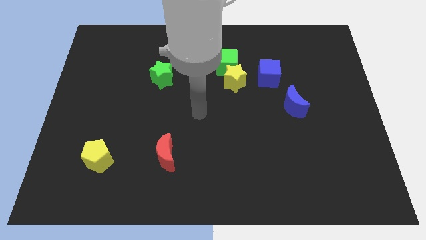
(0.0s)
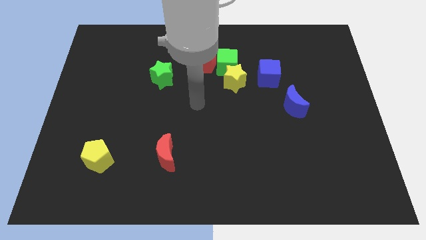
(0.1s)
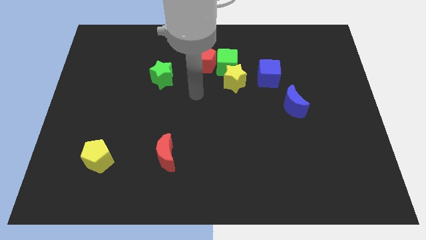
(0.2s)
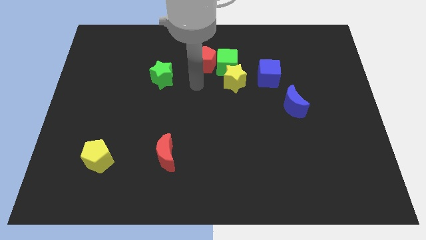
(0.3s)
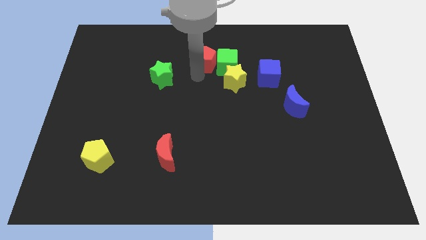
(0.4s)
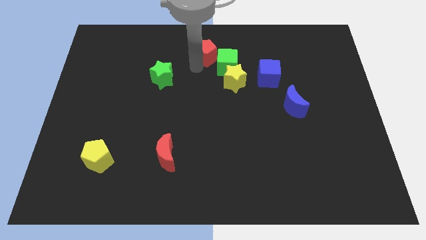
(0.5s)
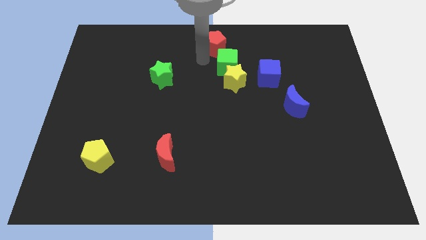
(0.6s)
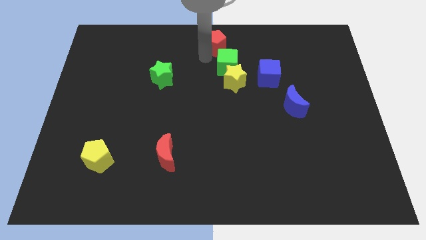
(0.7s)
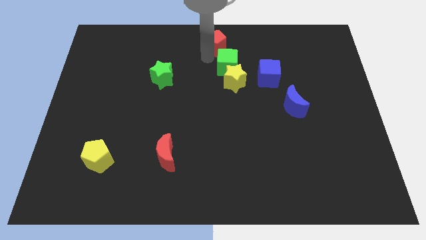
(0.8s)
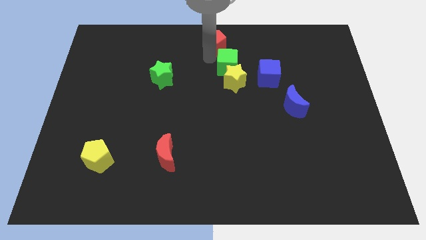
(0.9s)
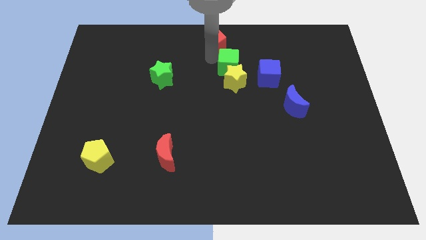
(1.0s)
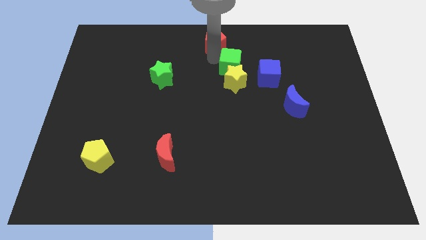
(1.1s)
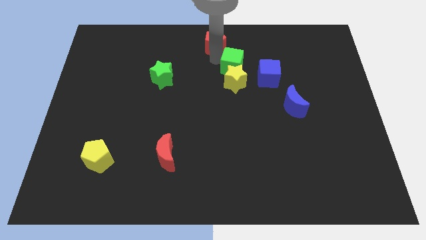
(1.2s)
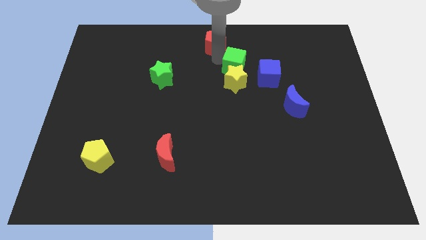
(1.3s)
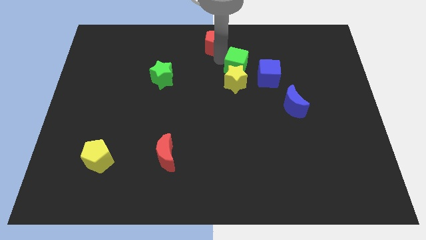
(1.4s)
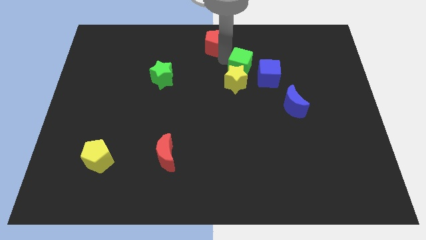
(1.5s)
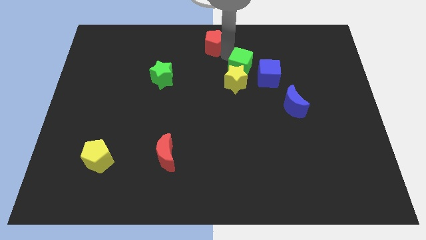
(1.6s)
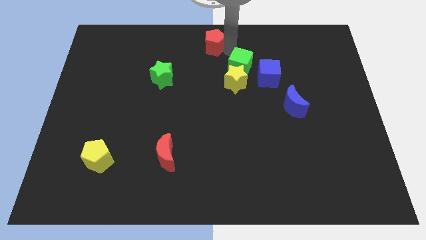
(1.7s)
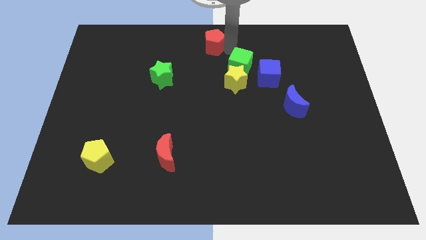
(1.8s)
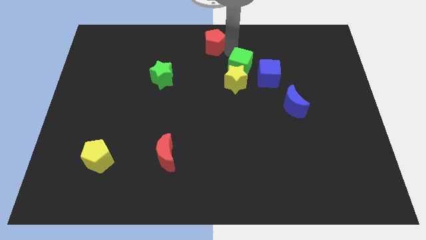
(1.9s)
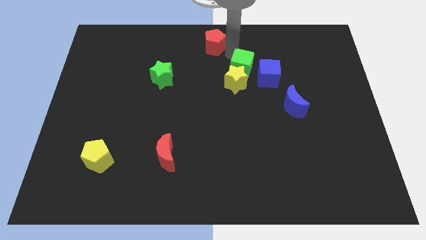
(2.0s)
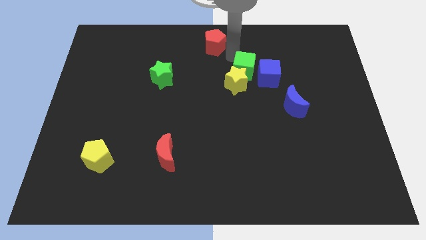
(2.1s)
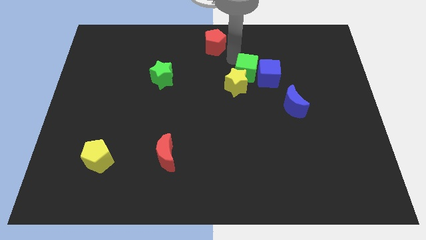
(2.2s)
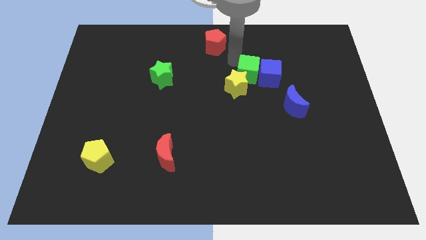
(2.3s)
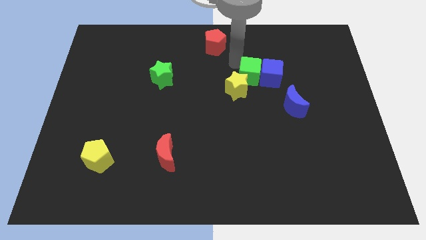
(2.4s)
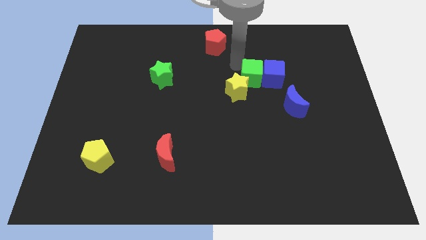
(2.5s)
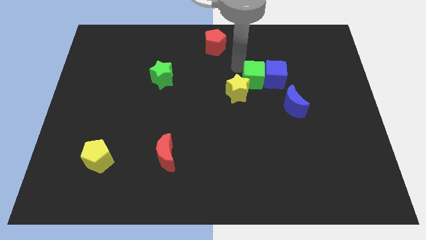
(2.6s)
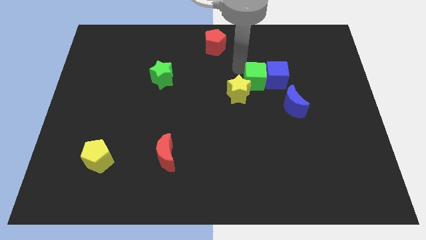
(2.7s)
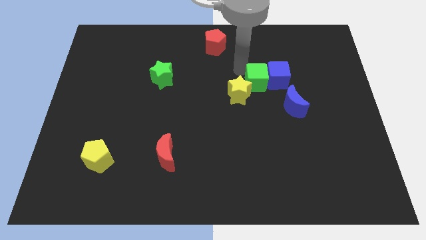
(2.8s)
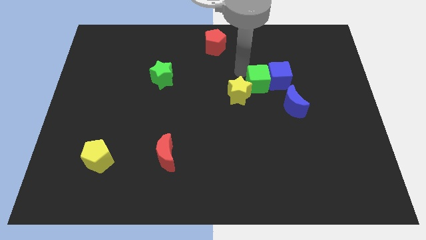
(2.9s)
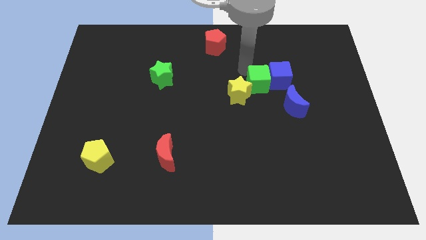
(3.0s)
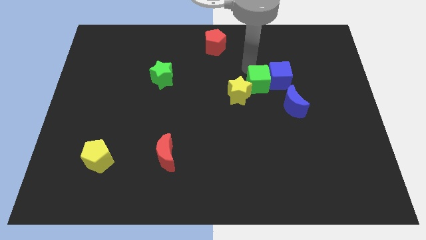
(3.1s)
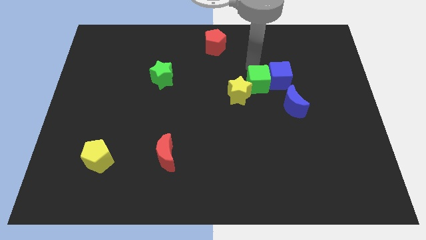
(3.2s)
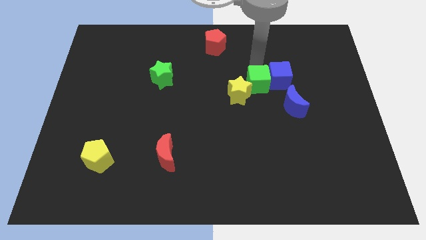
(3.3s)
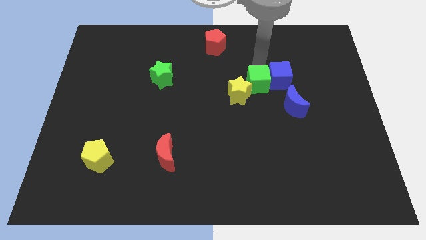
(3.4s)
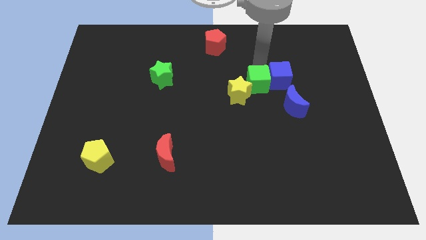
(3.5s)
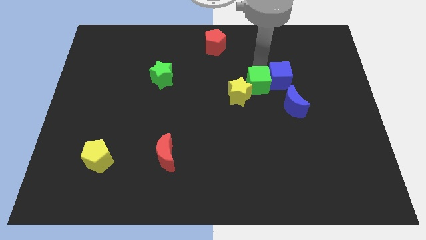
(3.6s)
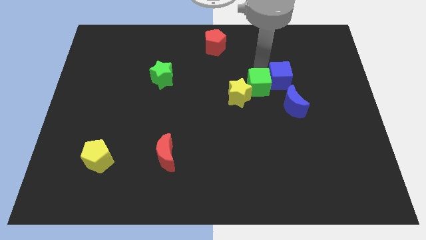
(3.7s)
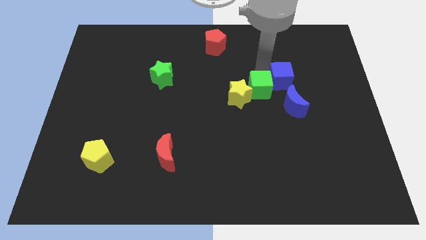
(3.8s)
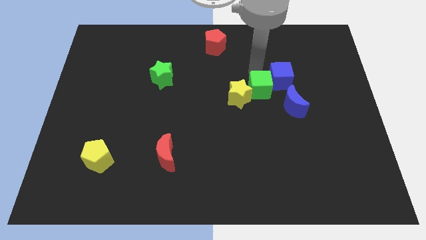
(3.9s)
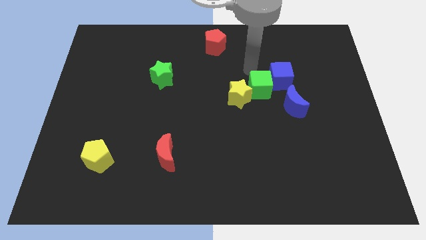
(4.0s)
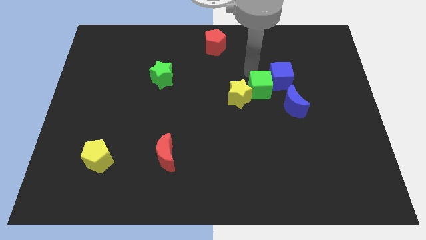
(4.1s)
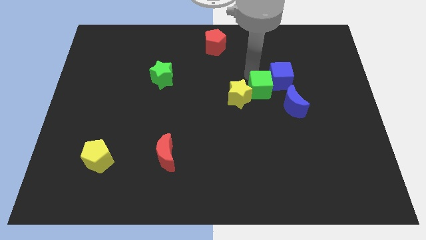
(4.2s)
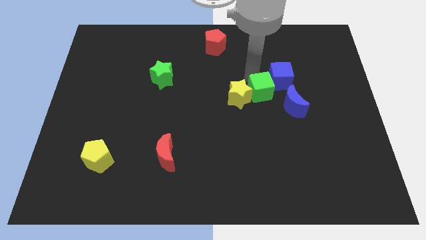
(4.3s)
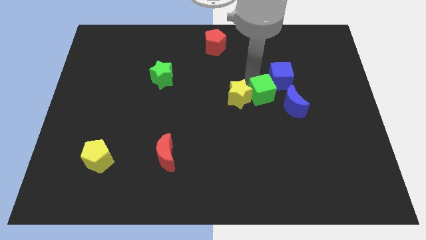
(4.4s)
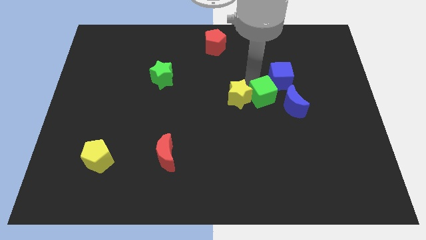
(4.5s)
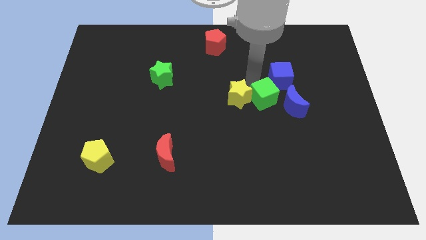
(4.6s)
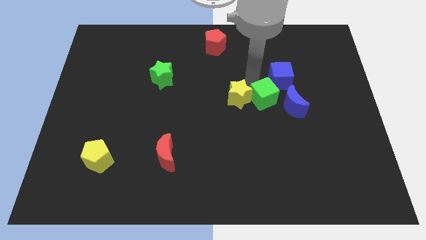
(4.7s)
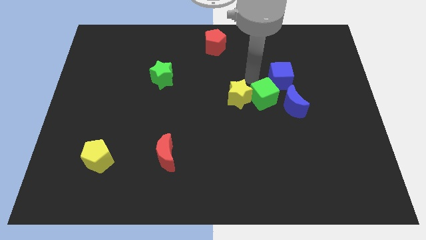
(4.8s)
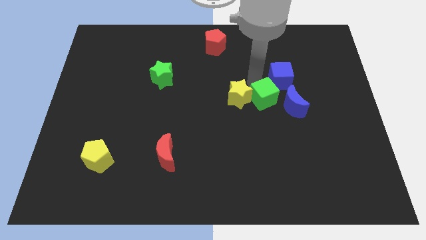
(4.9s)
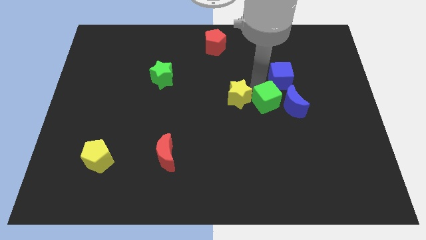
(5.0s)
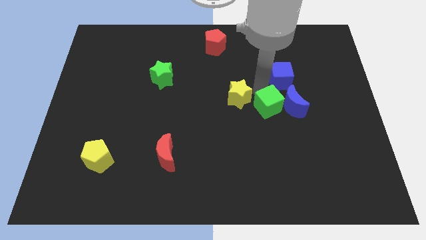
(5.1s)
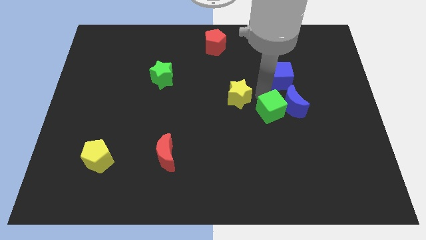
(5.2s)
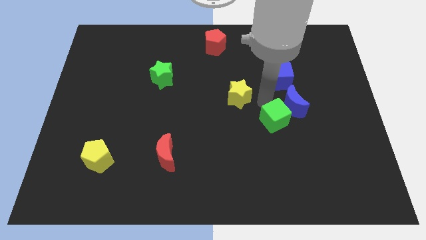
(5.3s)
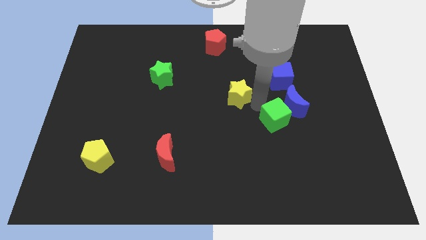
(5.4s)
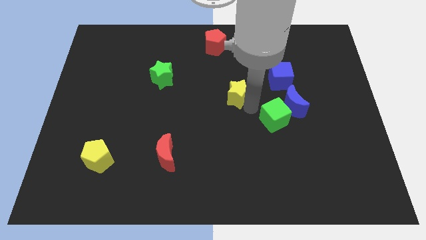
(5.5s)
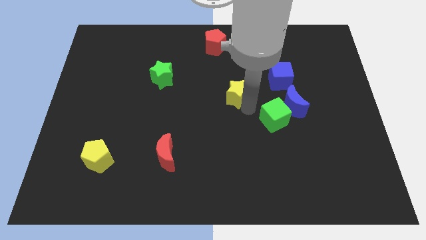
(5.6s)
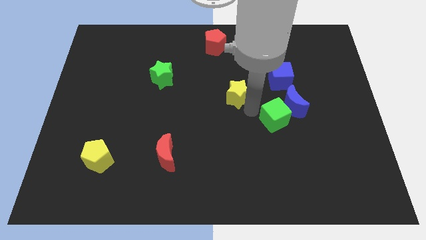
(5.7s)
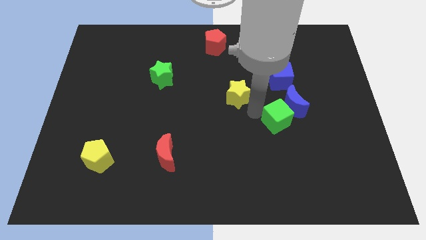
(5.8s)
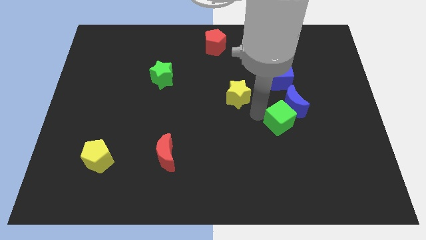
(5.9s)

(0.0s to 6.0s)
slide the green cube down and then right

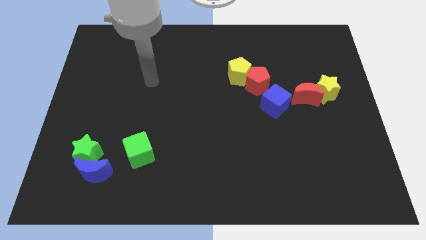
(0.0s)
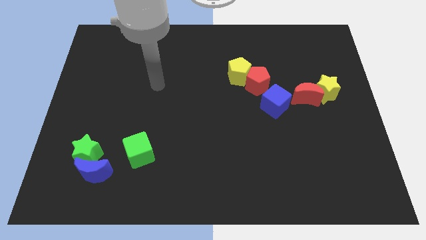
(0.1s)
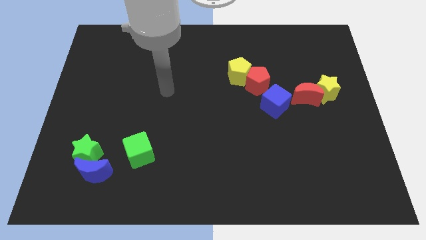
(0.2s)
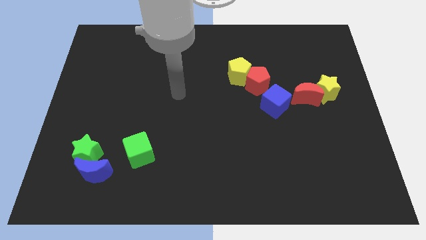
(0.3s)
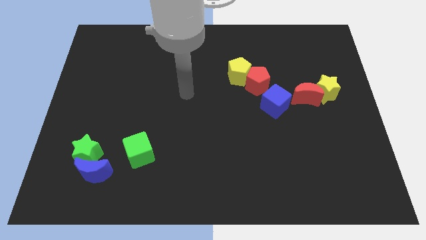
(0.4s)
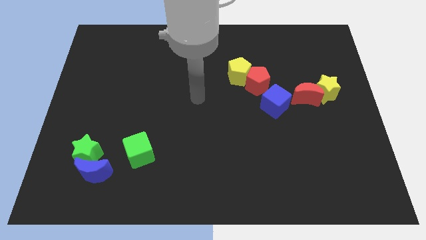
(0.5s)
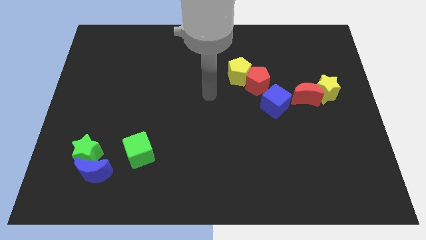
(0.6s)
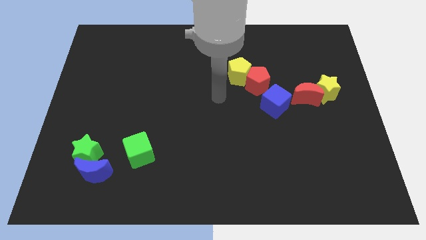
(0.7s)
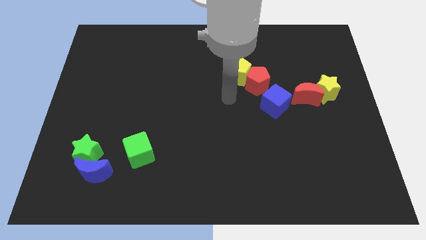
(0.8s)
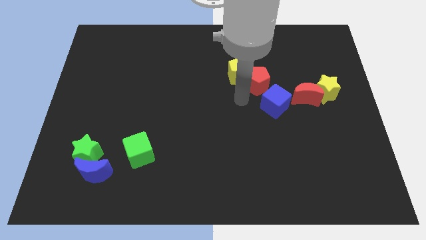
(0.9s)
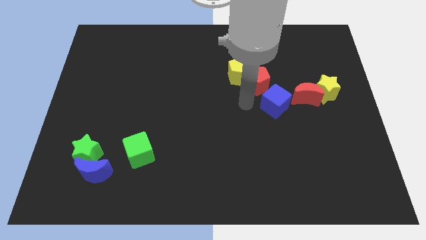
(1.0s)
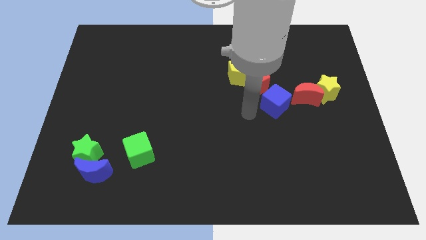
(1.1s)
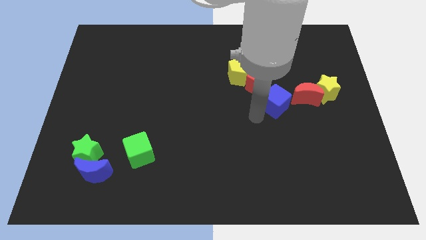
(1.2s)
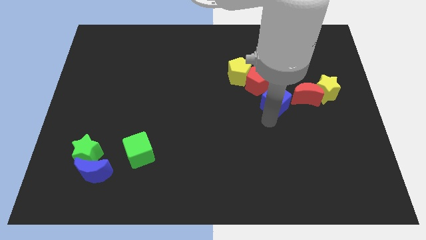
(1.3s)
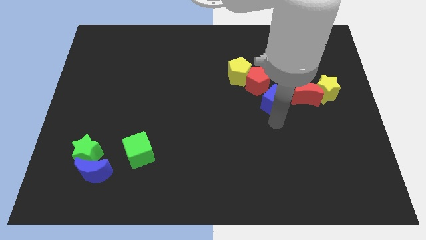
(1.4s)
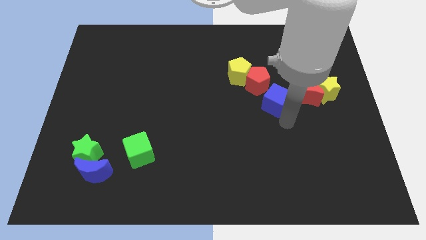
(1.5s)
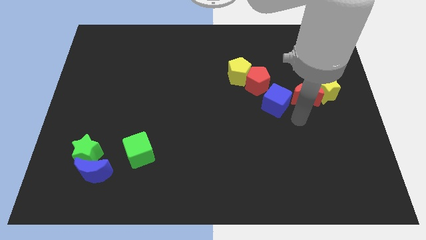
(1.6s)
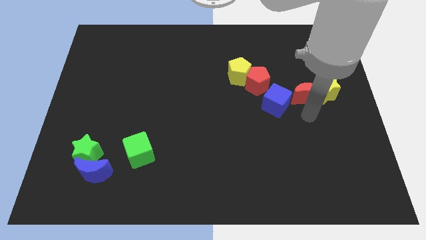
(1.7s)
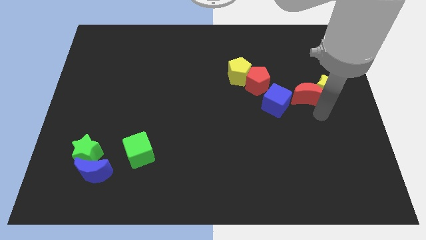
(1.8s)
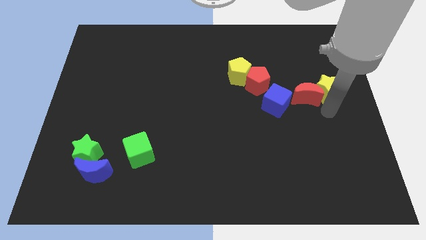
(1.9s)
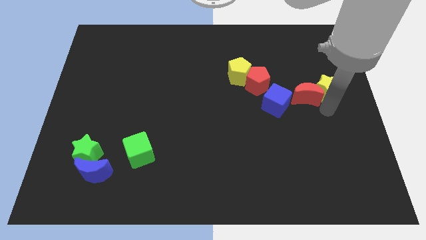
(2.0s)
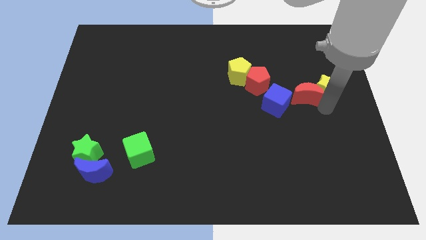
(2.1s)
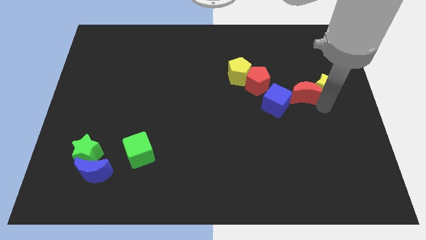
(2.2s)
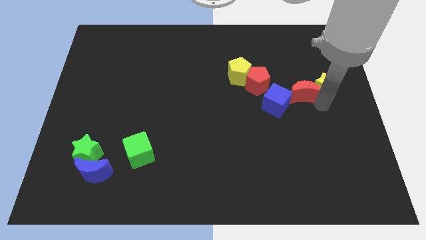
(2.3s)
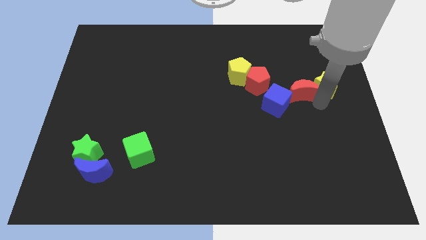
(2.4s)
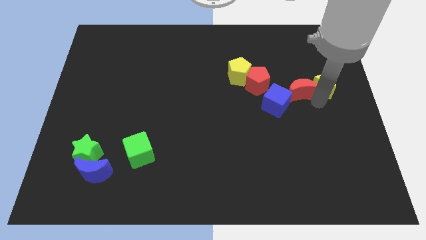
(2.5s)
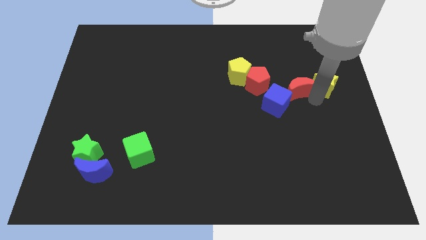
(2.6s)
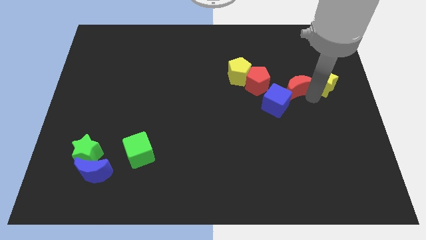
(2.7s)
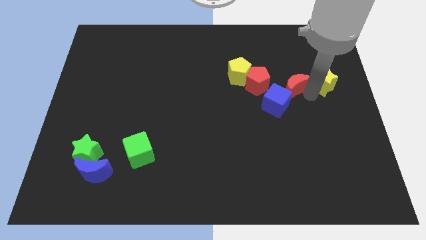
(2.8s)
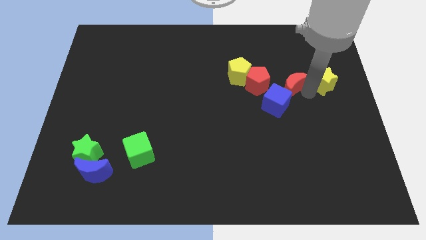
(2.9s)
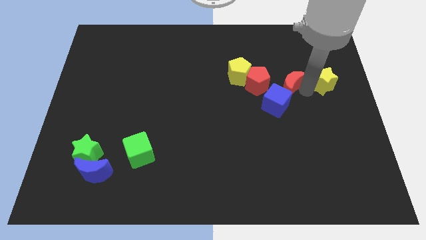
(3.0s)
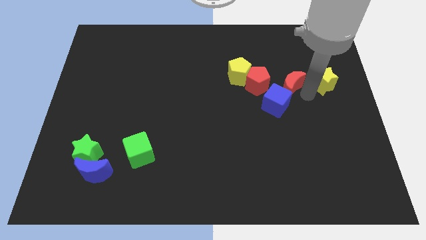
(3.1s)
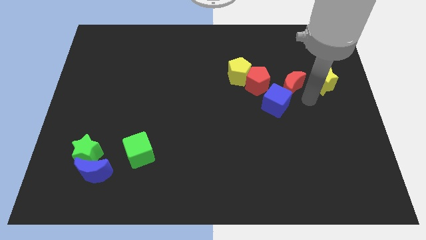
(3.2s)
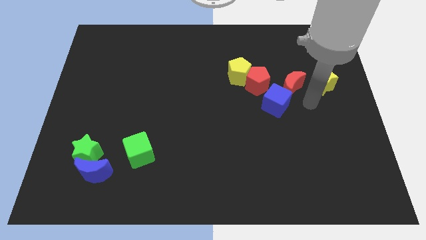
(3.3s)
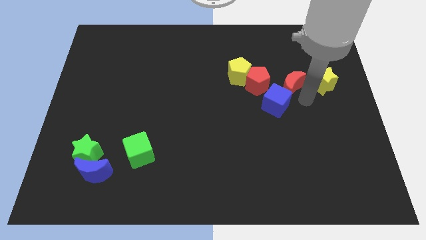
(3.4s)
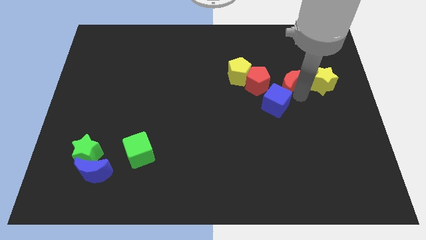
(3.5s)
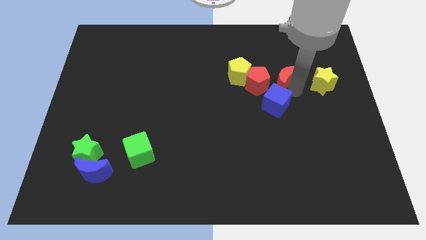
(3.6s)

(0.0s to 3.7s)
push the red moon somewhat up and left
